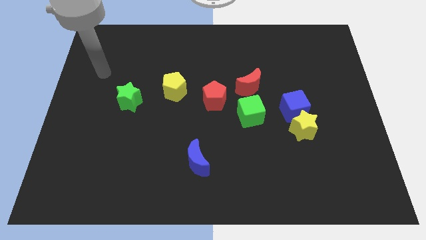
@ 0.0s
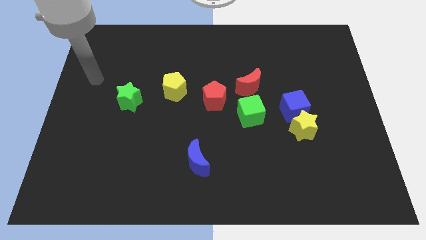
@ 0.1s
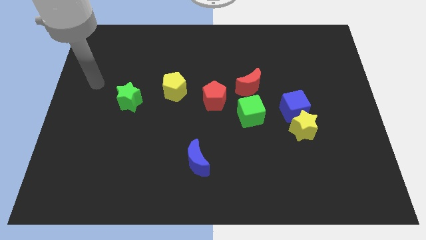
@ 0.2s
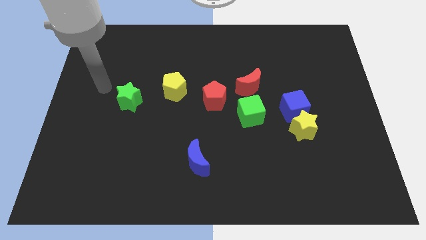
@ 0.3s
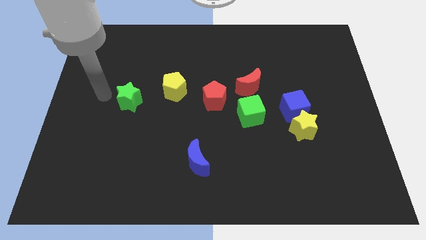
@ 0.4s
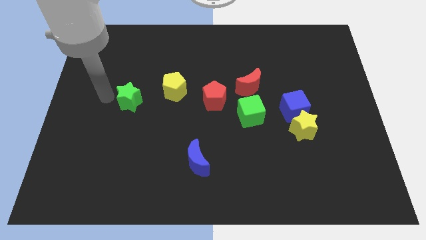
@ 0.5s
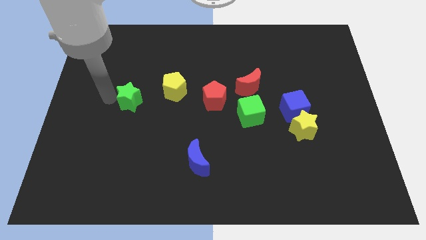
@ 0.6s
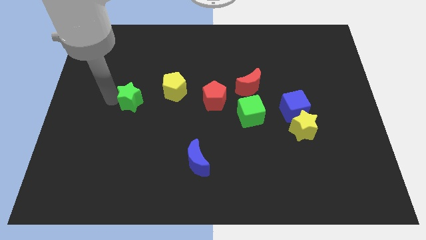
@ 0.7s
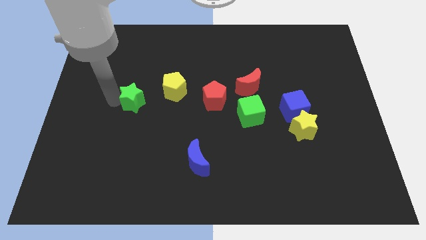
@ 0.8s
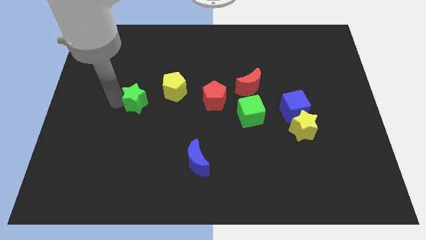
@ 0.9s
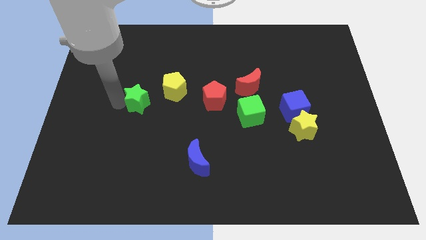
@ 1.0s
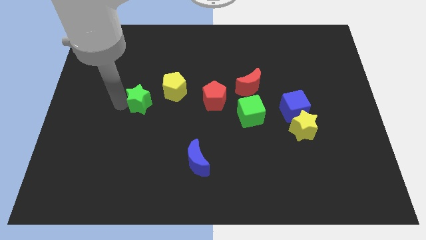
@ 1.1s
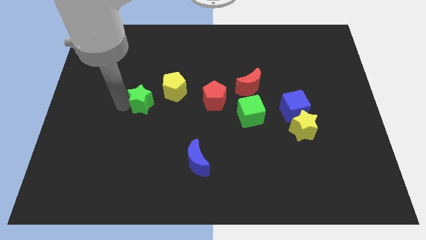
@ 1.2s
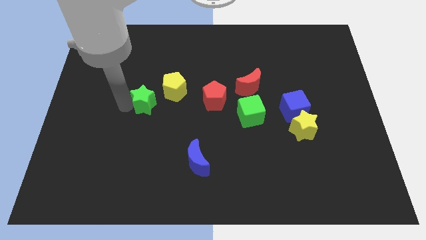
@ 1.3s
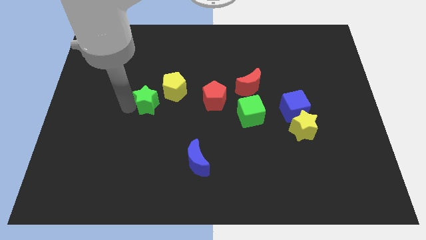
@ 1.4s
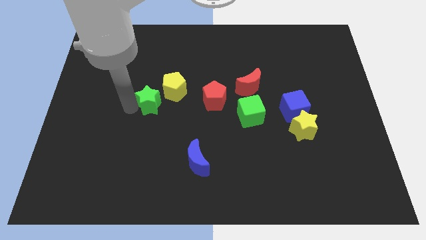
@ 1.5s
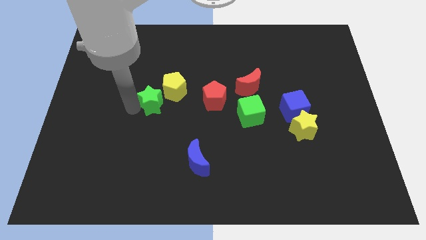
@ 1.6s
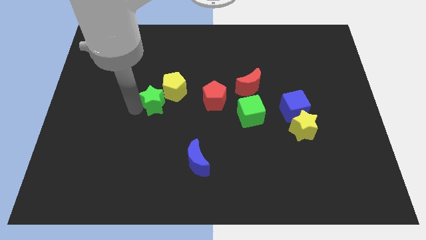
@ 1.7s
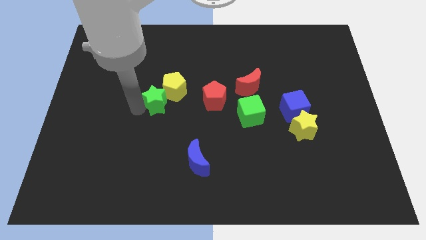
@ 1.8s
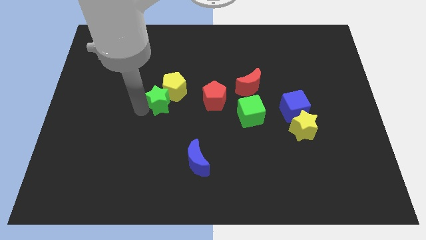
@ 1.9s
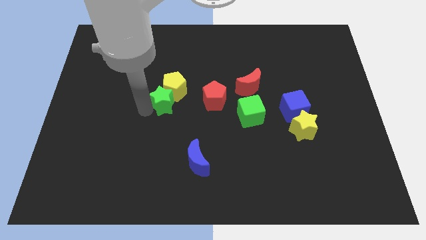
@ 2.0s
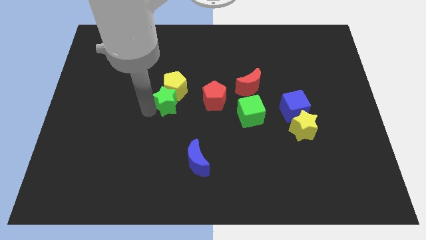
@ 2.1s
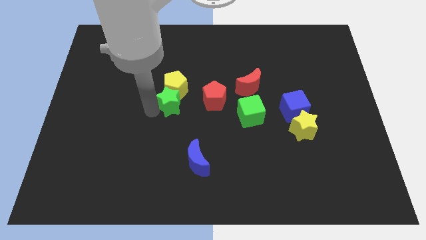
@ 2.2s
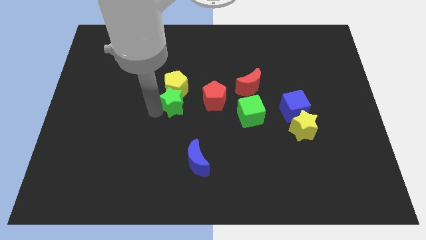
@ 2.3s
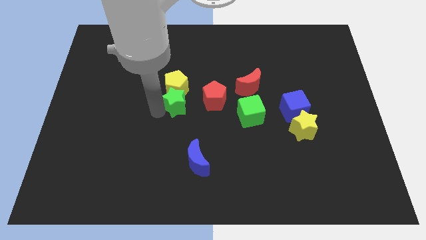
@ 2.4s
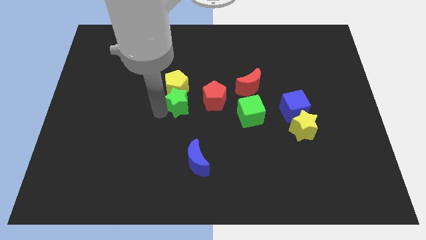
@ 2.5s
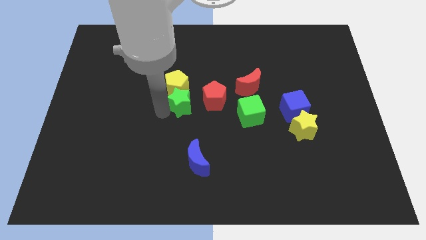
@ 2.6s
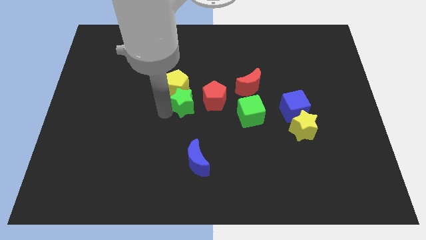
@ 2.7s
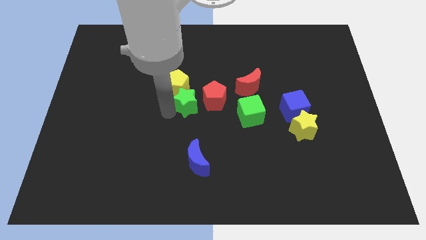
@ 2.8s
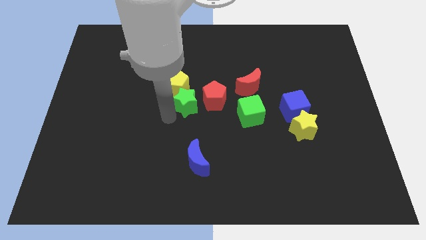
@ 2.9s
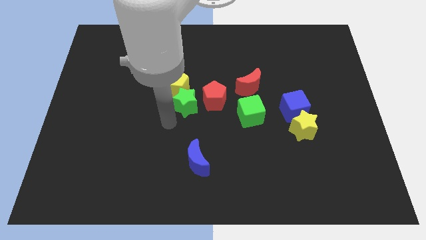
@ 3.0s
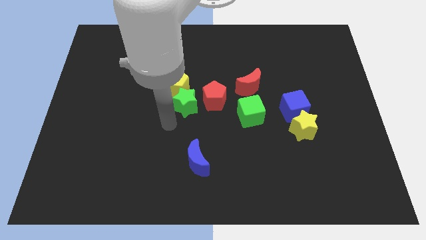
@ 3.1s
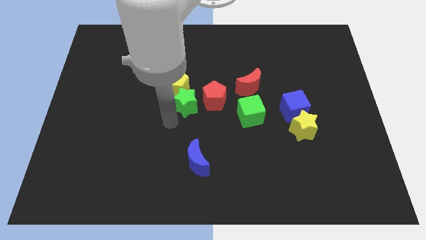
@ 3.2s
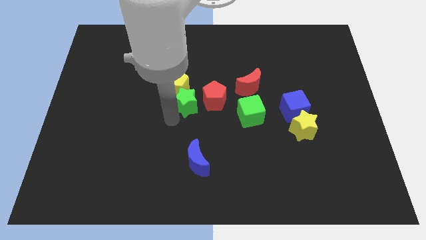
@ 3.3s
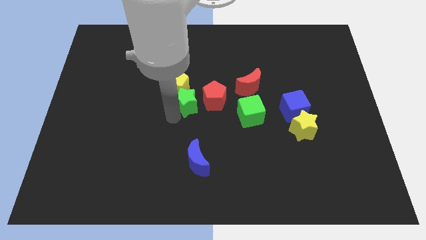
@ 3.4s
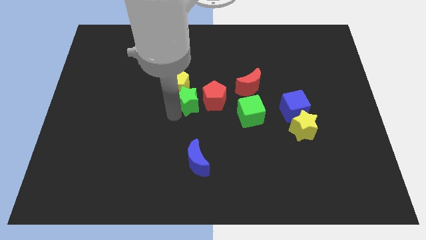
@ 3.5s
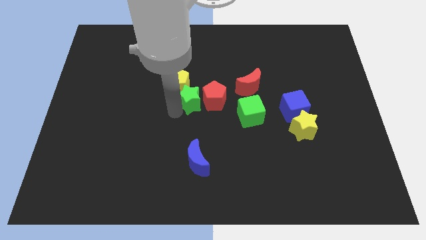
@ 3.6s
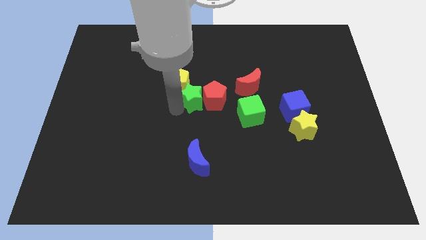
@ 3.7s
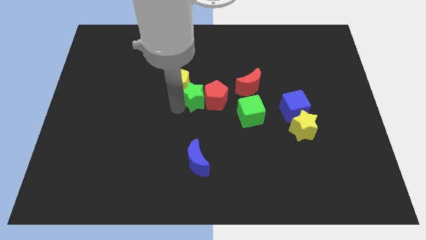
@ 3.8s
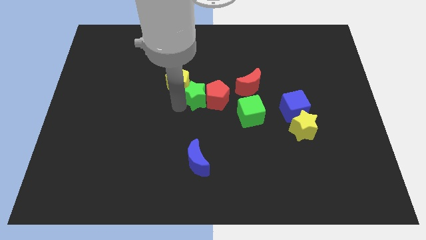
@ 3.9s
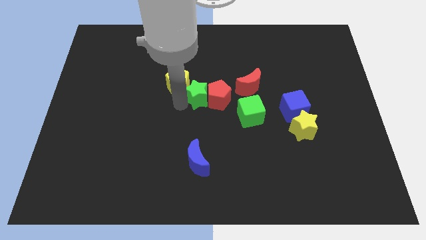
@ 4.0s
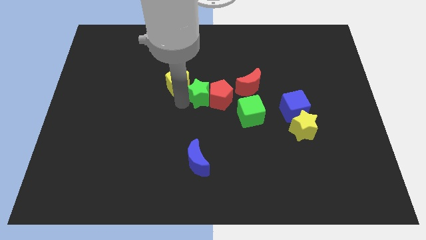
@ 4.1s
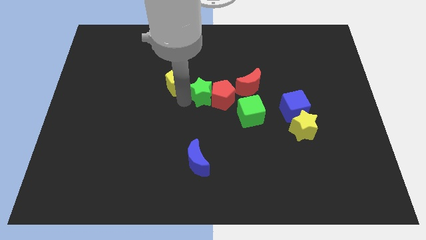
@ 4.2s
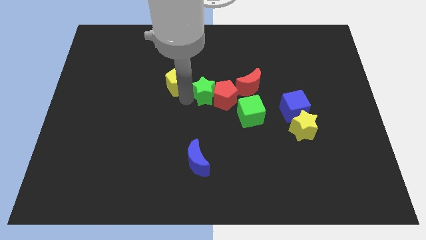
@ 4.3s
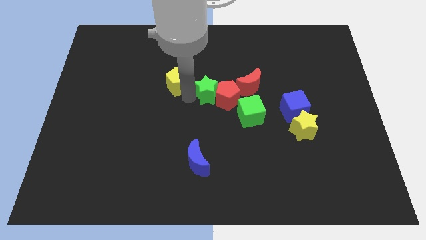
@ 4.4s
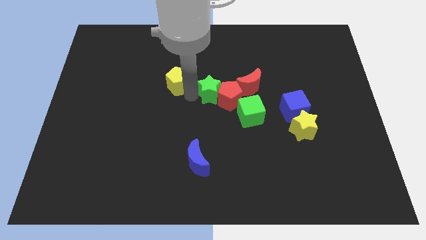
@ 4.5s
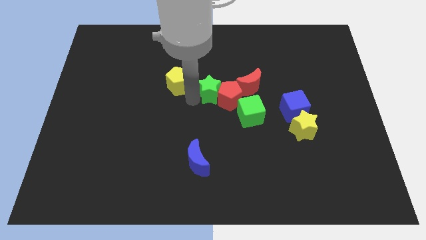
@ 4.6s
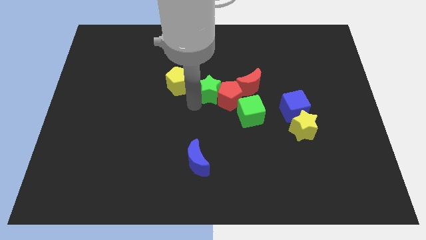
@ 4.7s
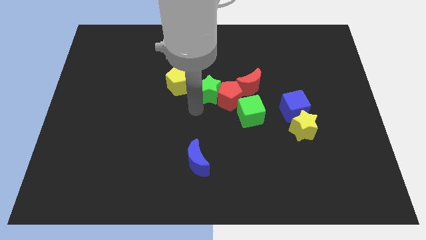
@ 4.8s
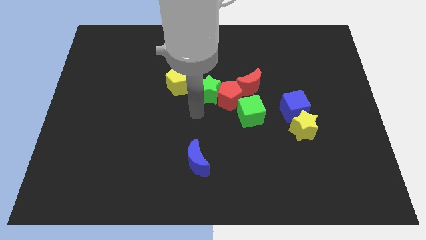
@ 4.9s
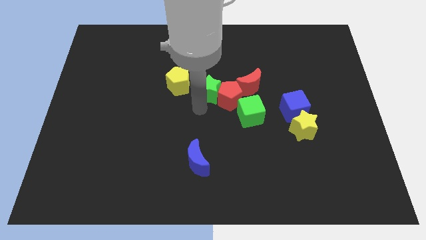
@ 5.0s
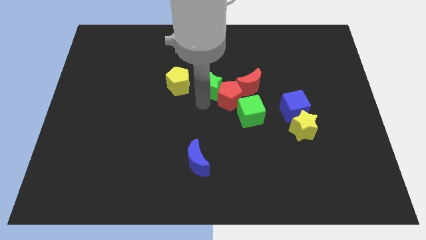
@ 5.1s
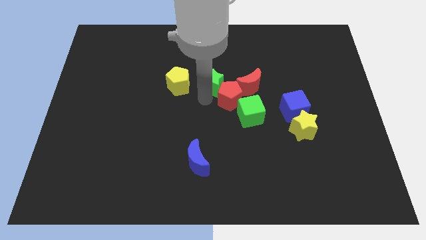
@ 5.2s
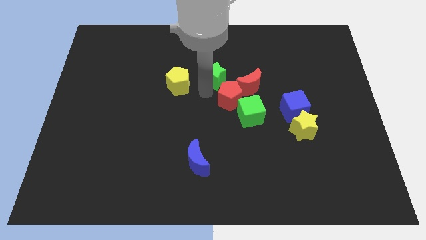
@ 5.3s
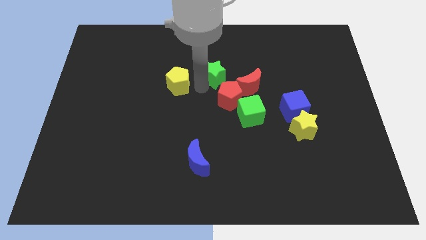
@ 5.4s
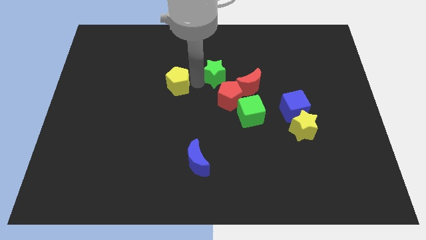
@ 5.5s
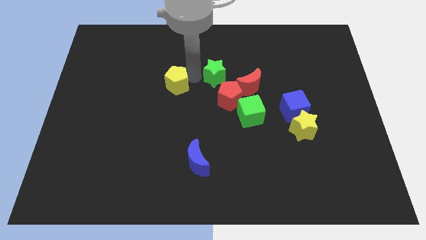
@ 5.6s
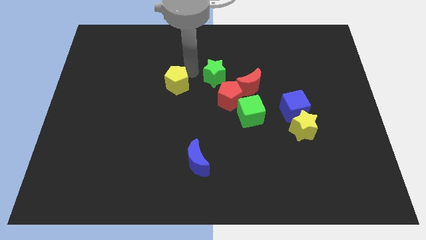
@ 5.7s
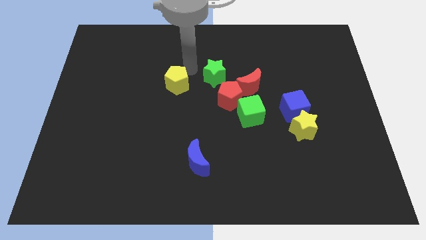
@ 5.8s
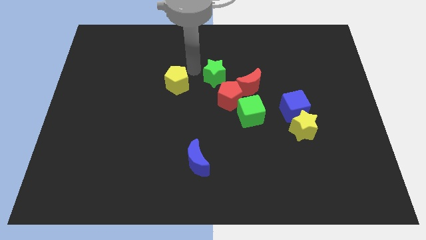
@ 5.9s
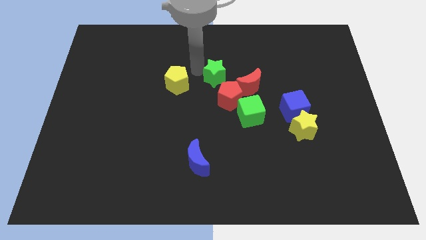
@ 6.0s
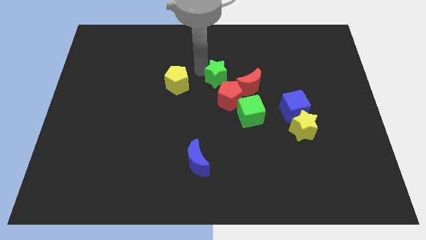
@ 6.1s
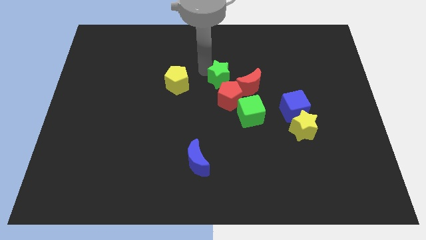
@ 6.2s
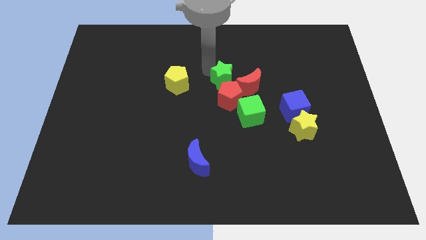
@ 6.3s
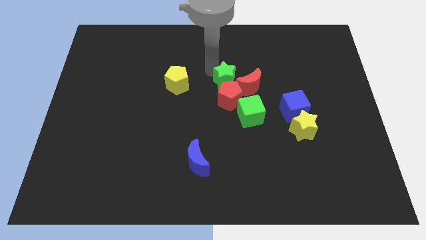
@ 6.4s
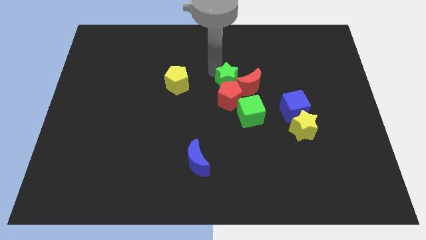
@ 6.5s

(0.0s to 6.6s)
put the green star next to the red moon

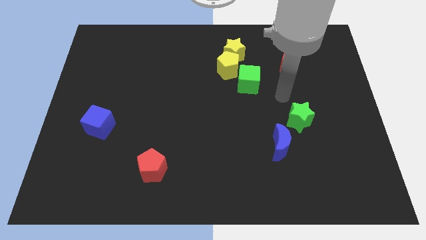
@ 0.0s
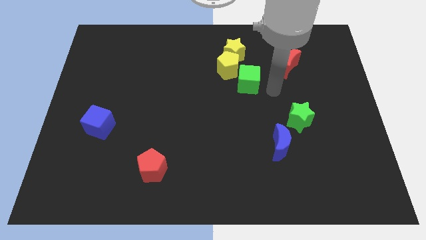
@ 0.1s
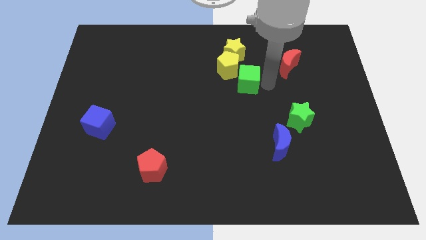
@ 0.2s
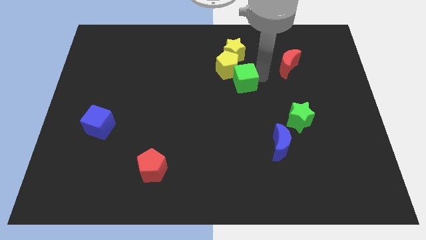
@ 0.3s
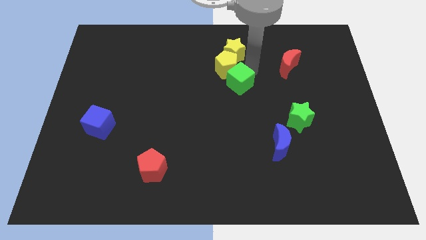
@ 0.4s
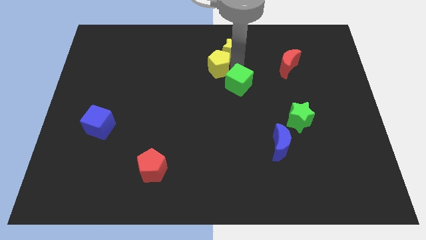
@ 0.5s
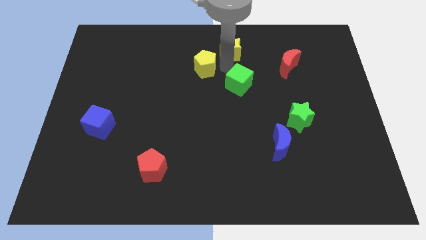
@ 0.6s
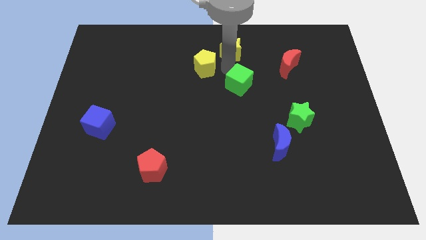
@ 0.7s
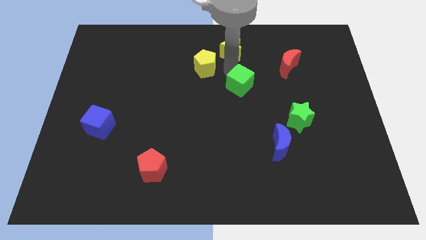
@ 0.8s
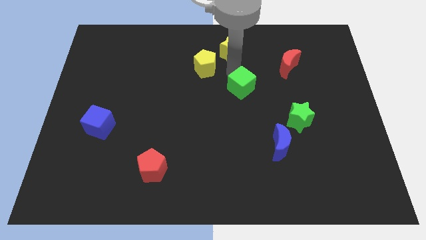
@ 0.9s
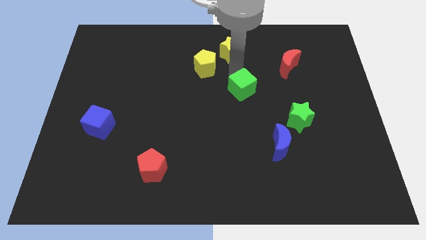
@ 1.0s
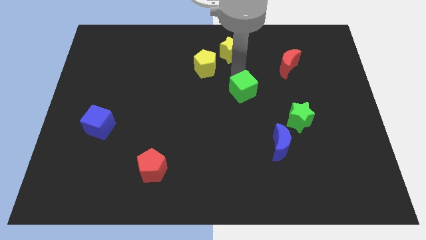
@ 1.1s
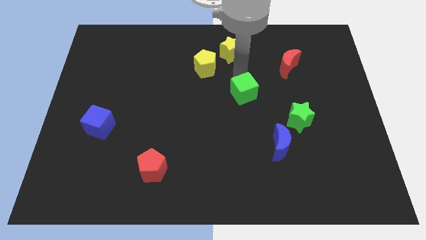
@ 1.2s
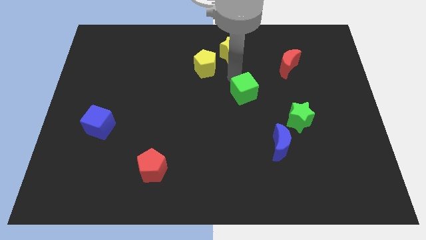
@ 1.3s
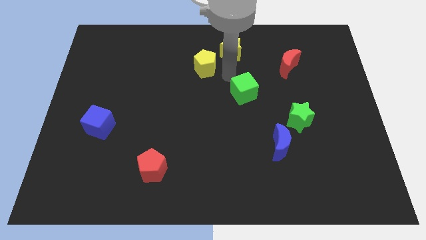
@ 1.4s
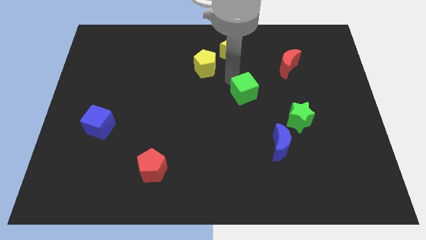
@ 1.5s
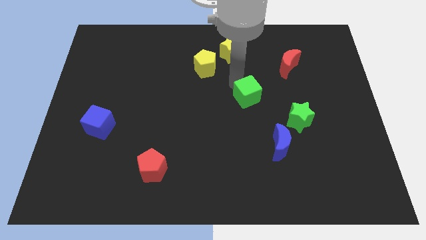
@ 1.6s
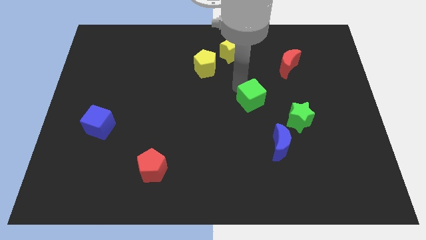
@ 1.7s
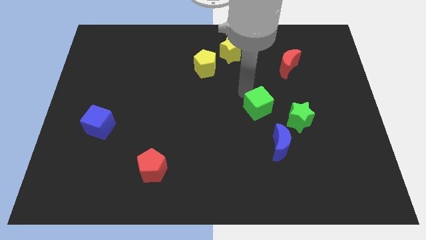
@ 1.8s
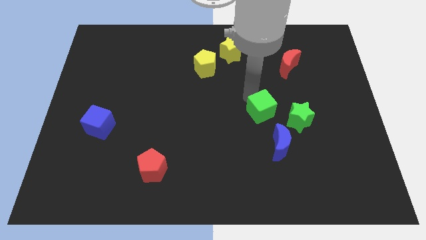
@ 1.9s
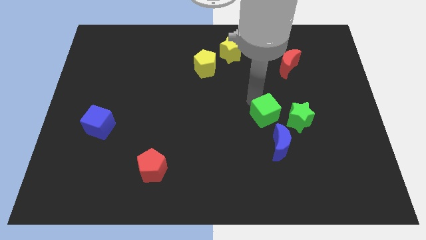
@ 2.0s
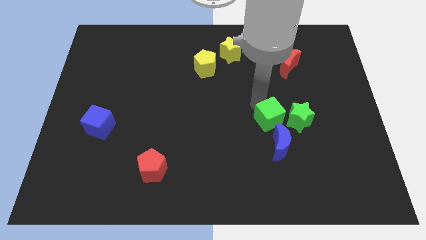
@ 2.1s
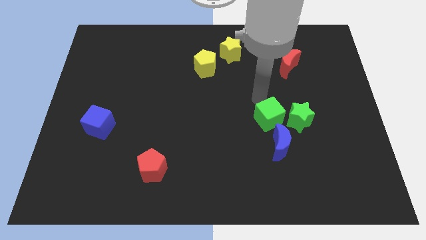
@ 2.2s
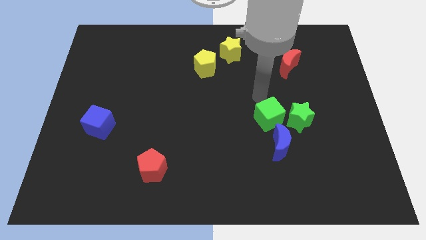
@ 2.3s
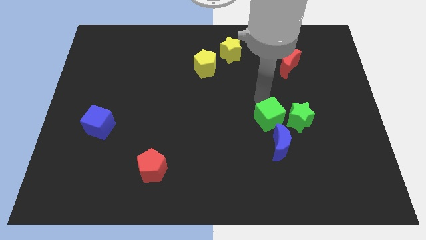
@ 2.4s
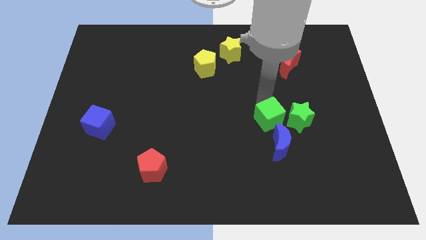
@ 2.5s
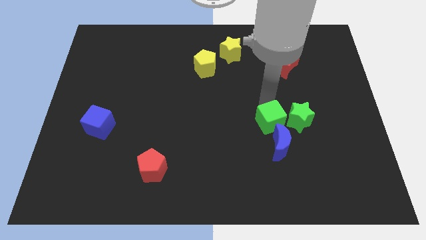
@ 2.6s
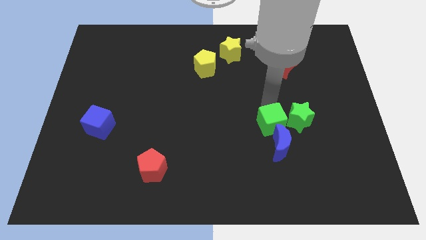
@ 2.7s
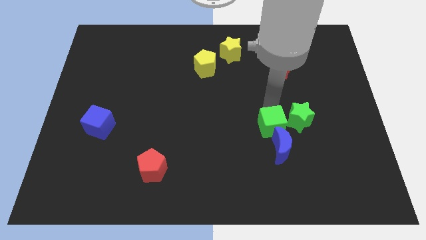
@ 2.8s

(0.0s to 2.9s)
slide the green cube close to the blue moon
